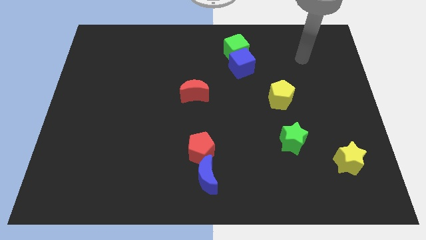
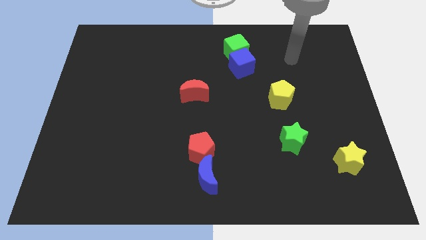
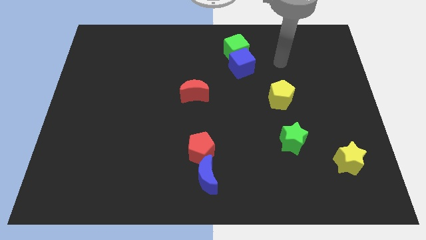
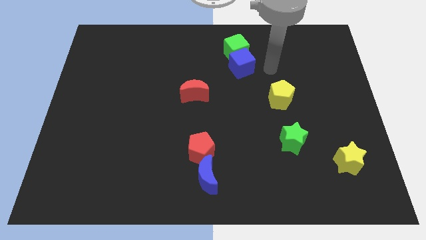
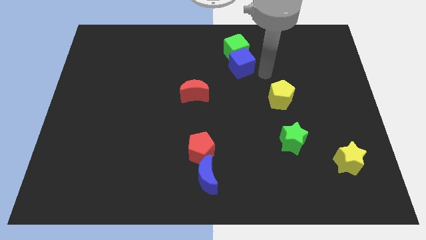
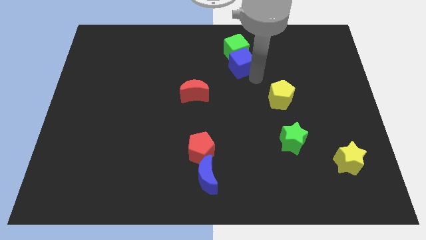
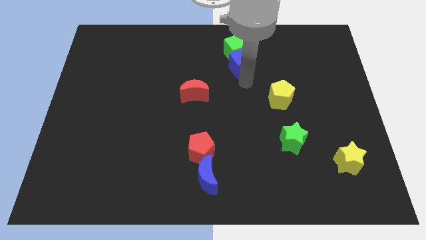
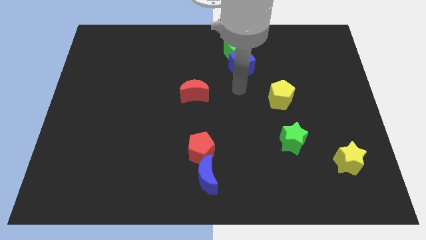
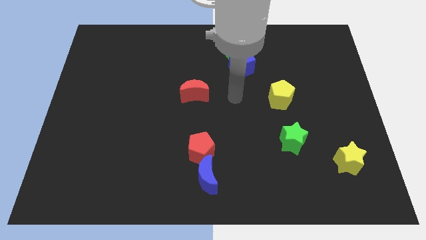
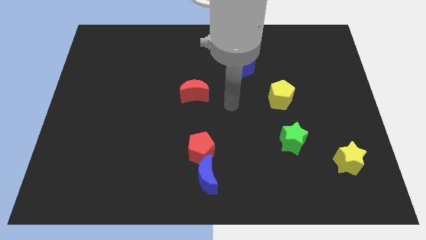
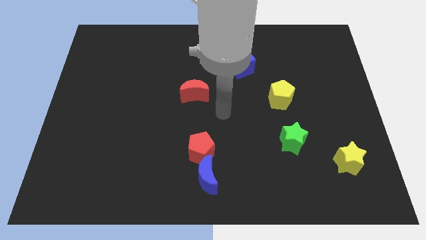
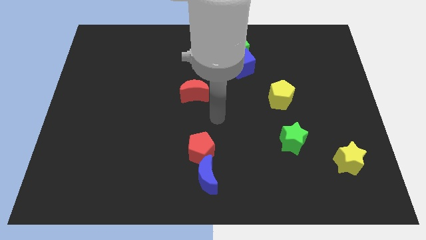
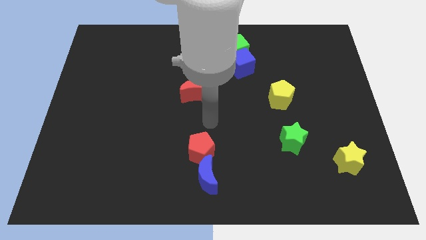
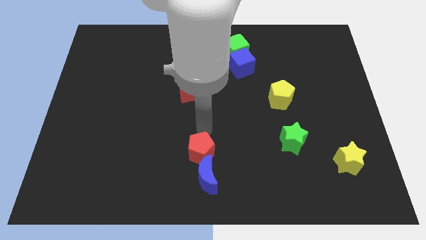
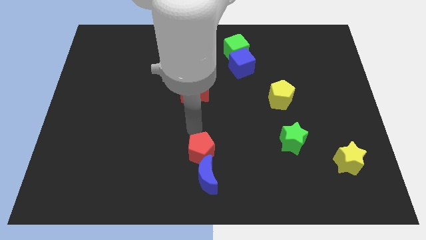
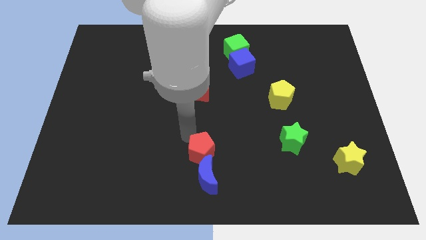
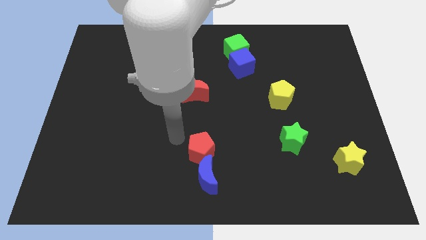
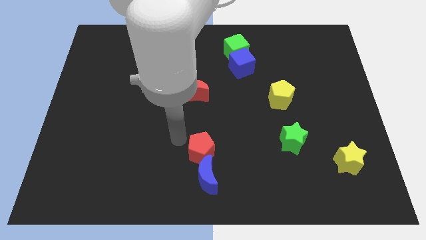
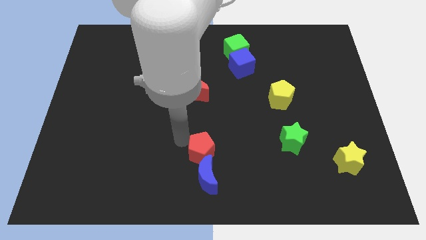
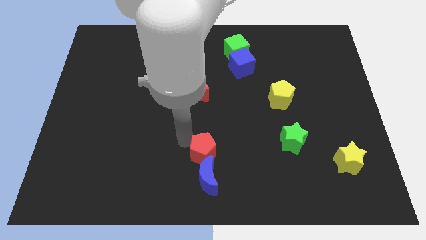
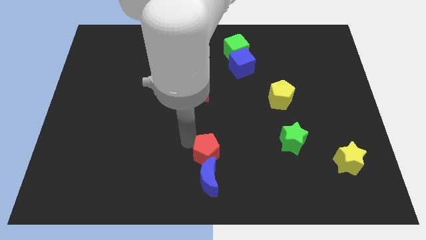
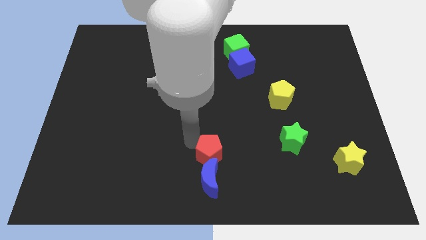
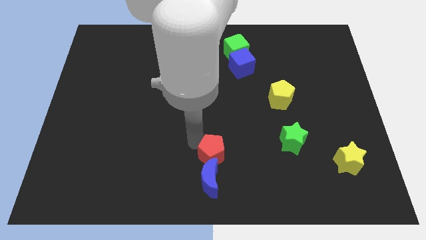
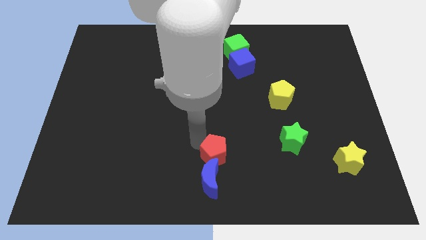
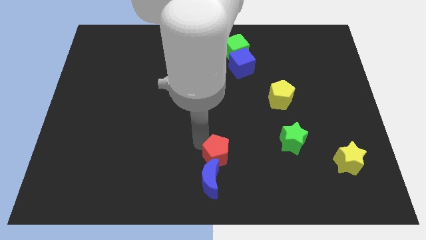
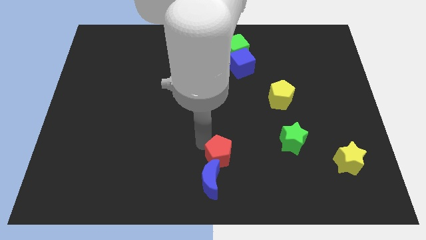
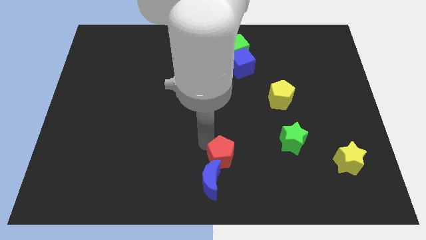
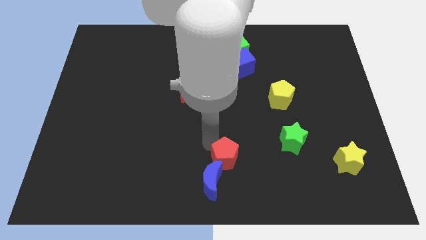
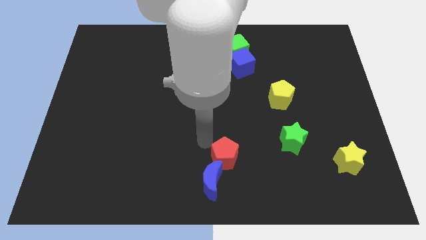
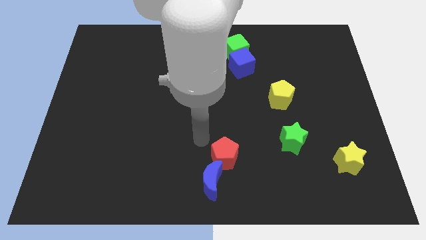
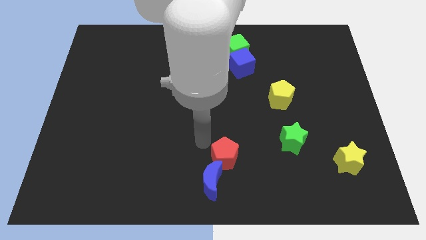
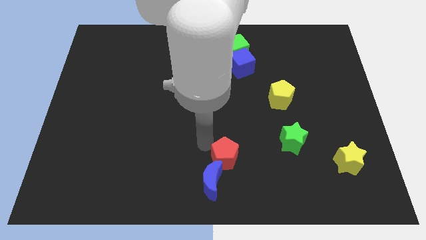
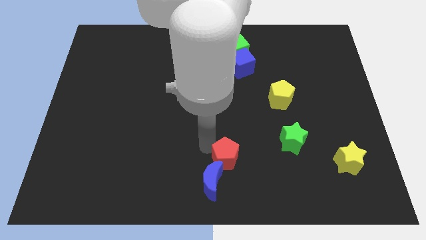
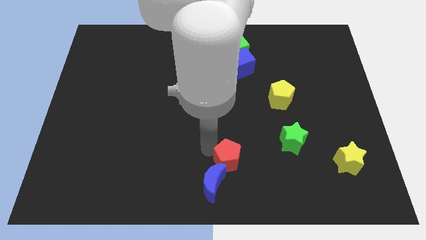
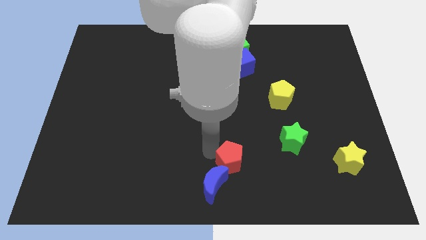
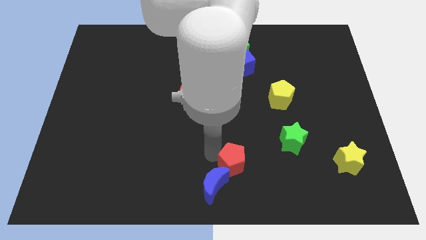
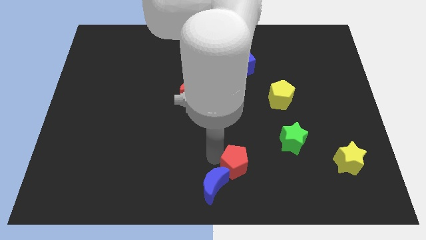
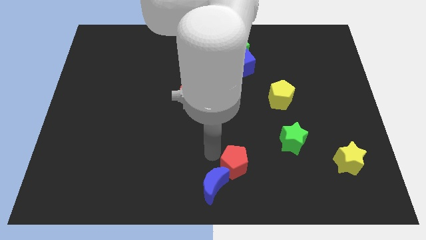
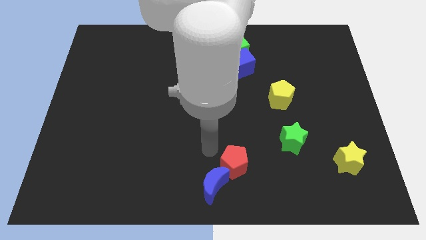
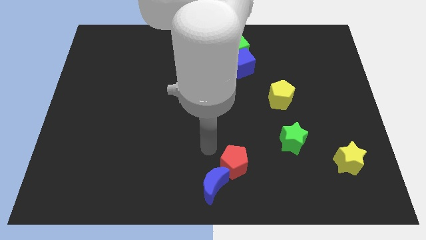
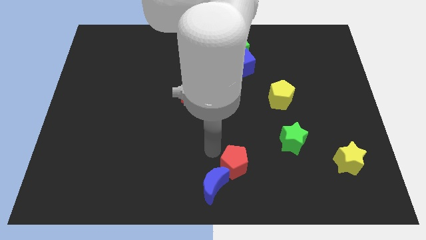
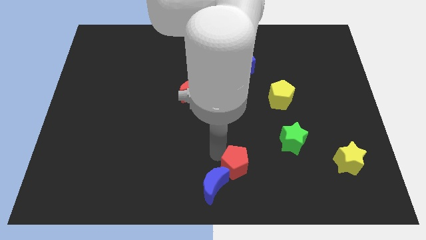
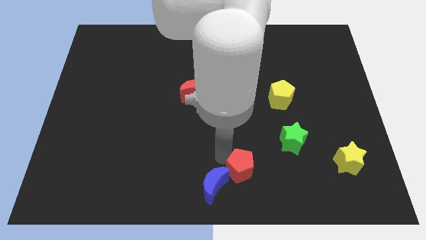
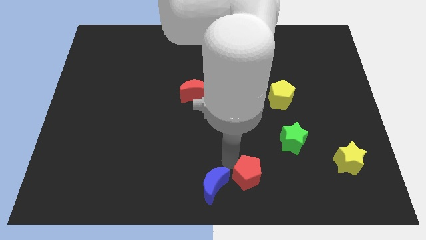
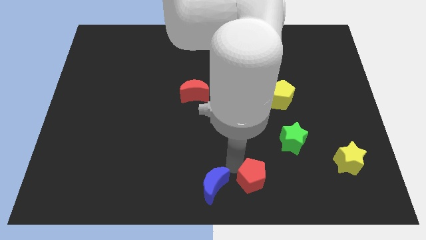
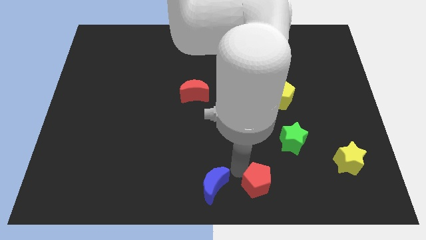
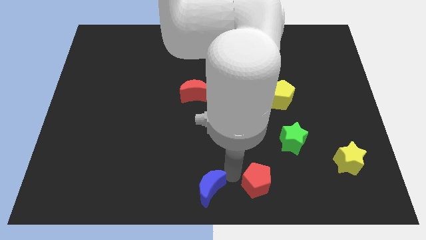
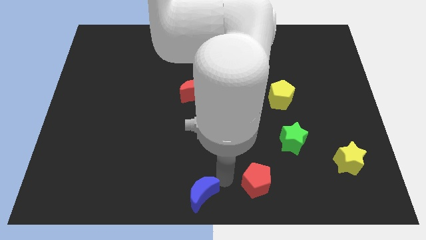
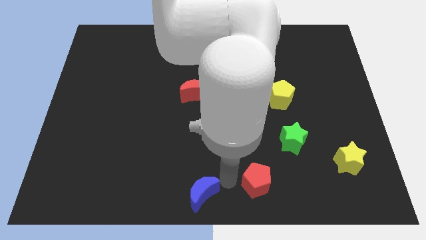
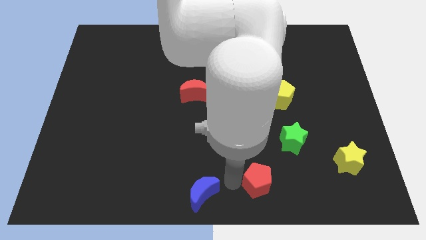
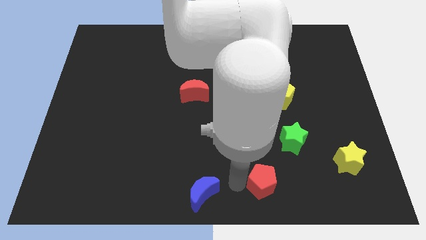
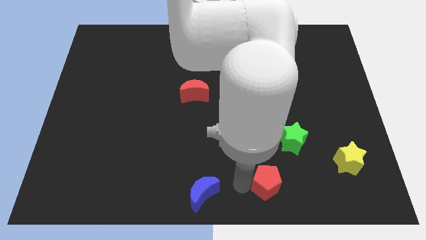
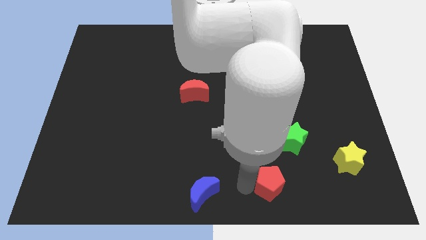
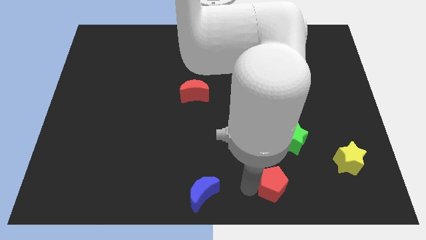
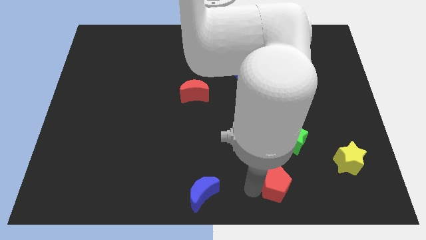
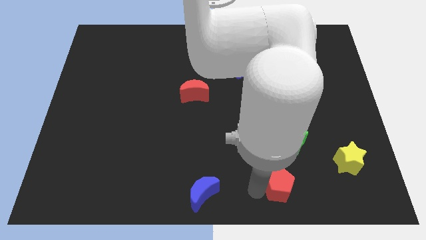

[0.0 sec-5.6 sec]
slide the red pentagon to the bottom of the green star

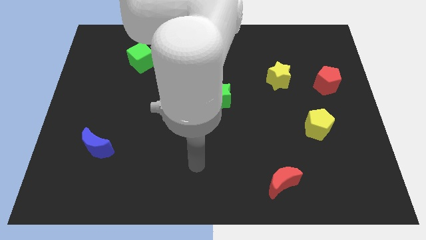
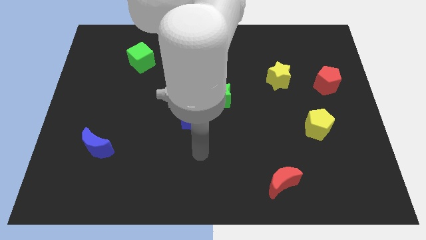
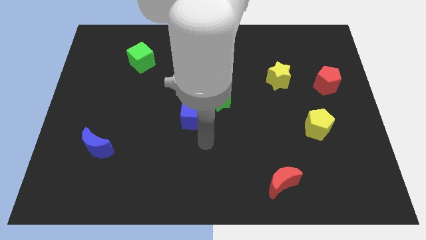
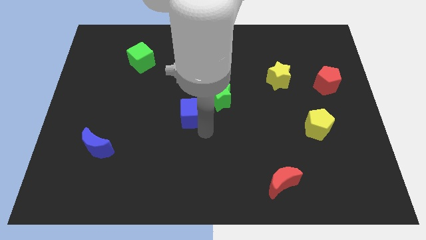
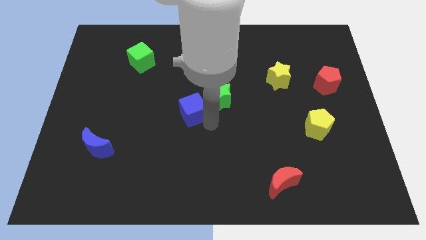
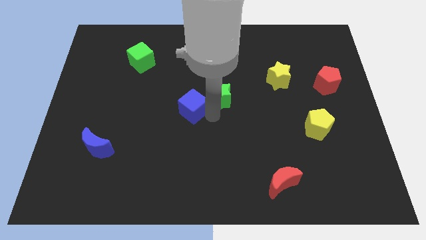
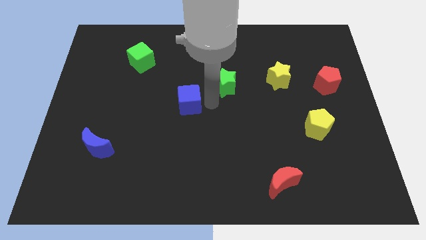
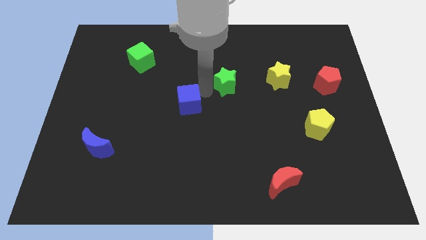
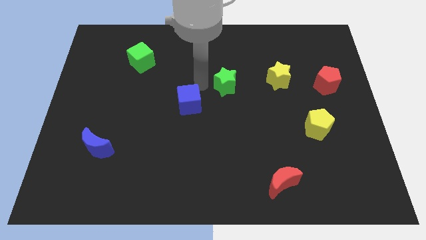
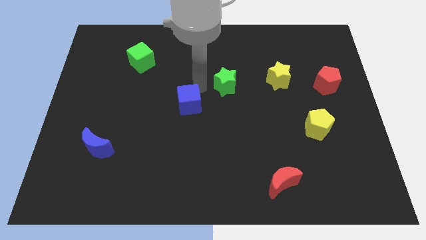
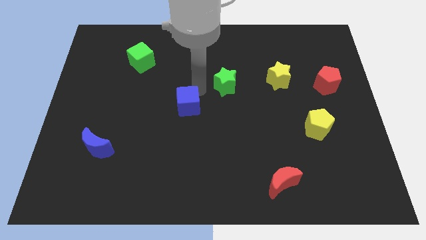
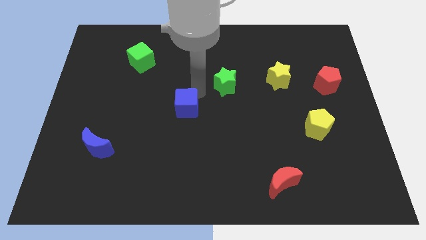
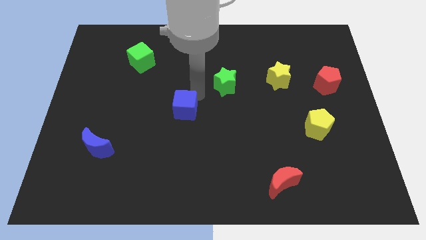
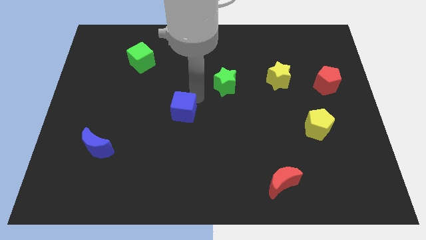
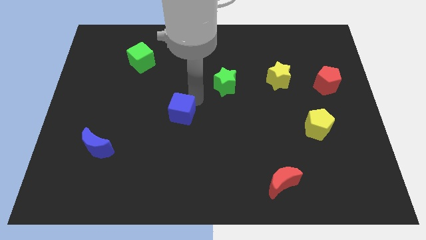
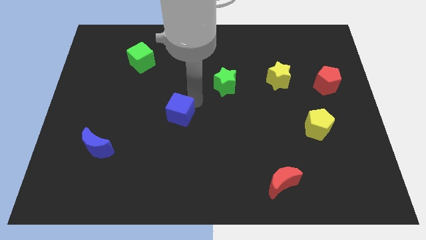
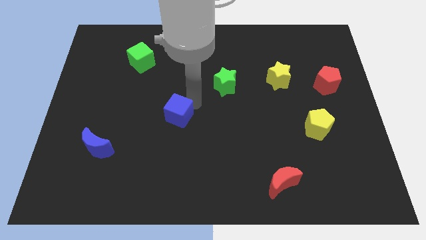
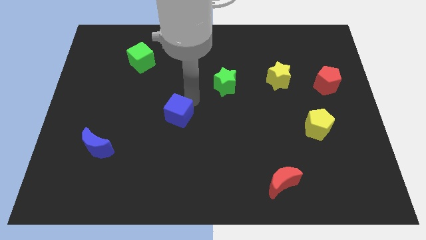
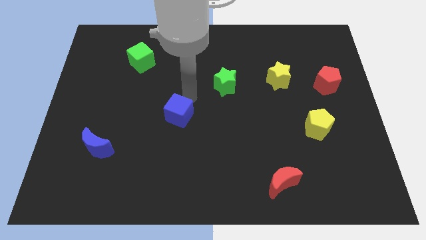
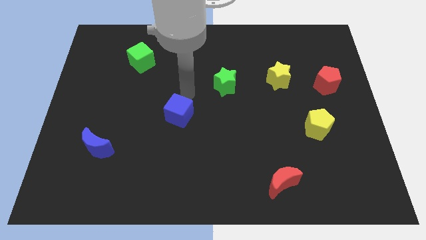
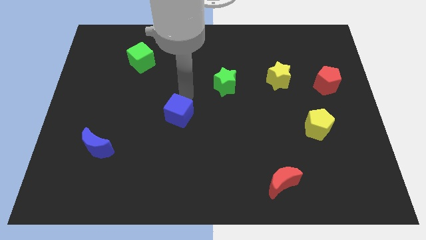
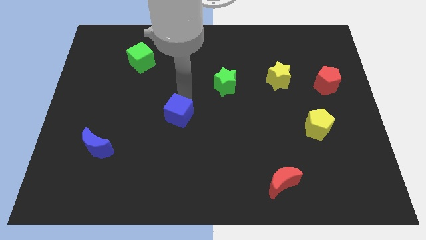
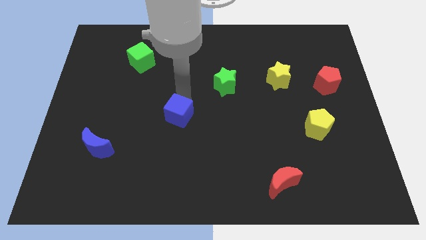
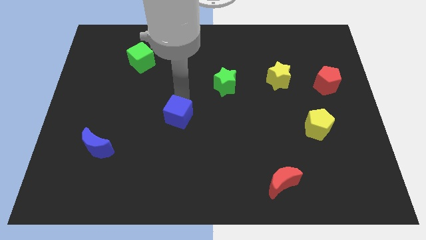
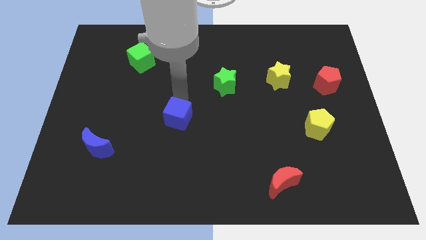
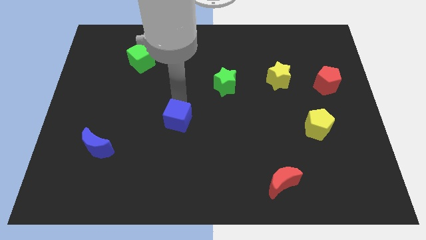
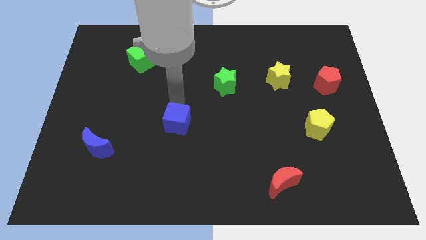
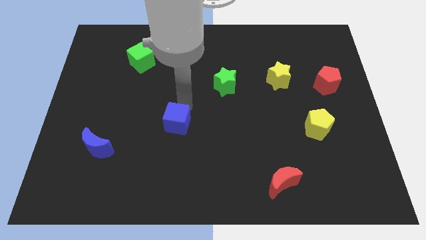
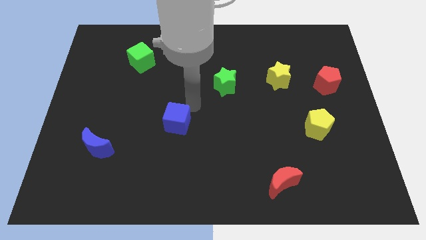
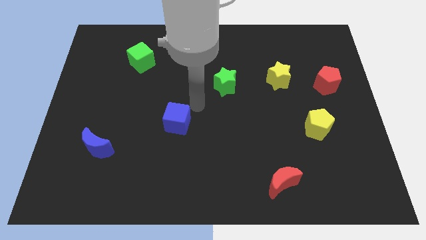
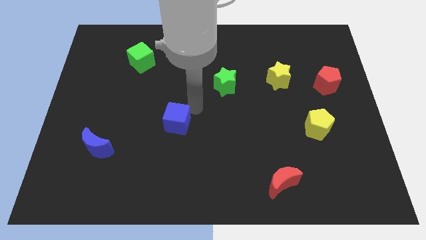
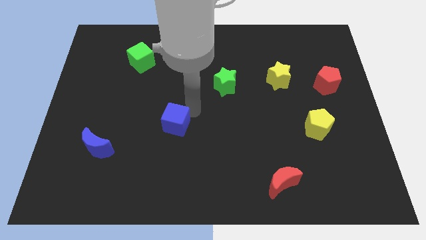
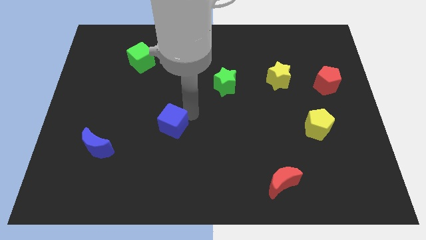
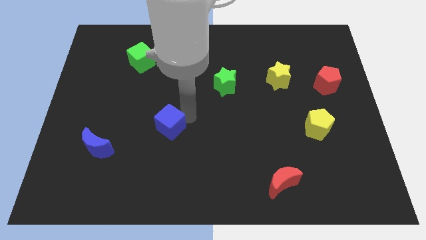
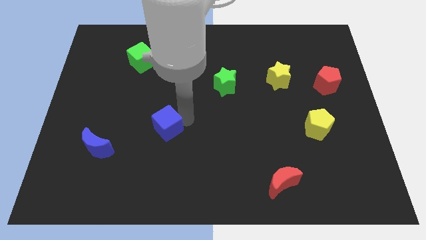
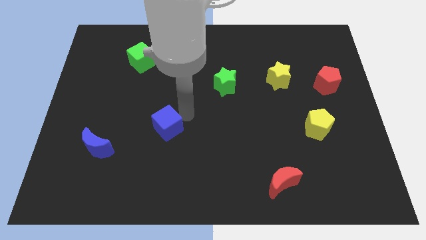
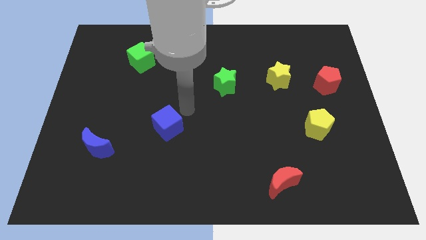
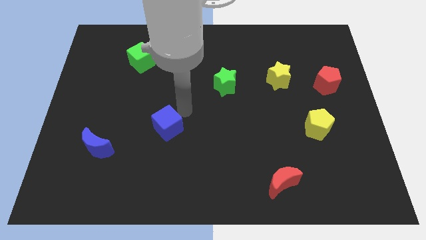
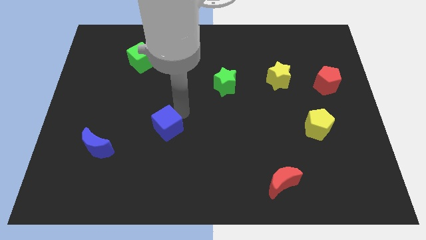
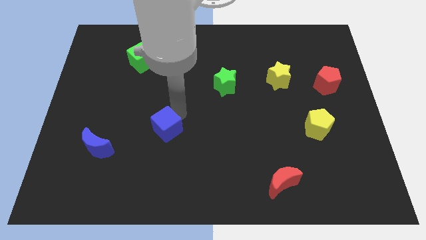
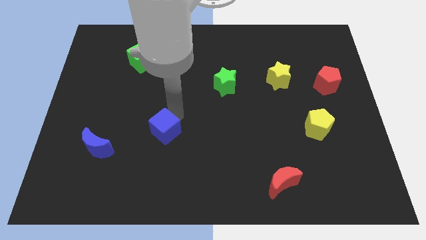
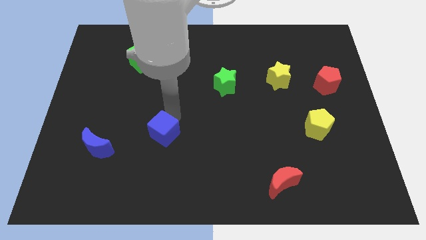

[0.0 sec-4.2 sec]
slide the blue cube to the right side of the blue moon
